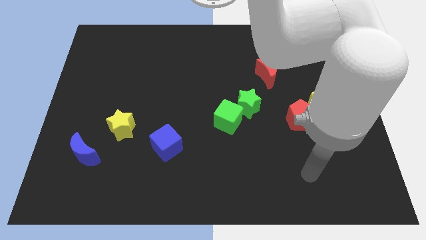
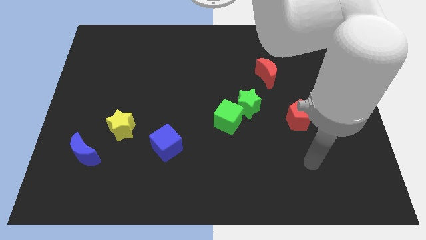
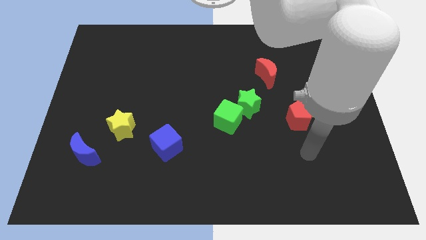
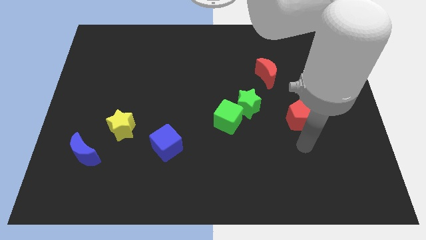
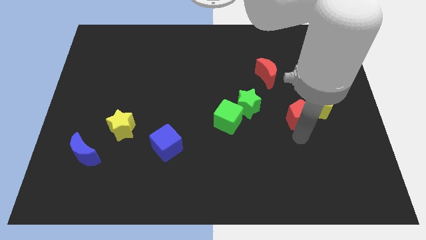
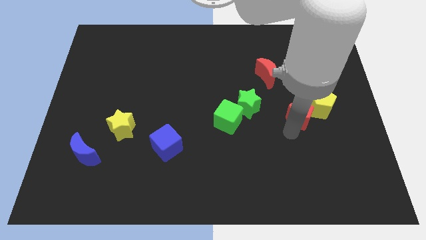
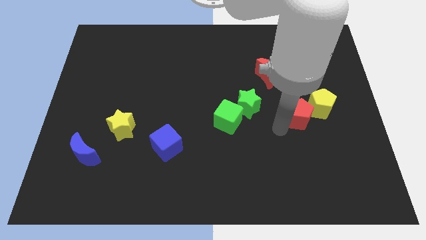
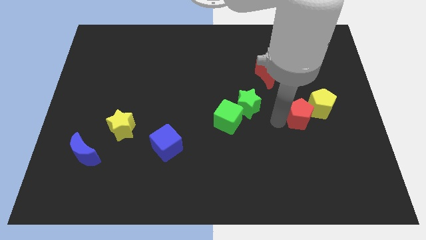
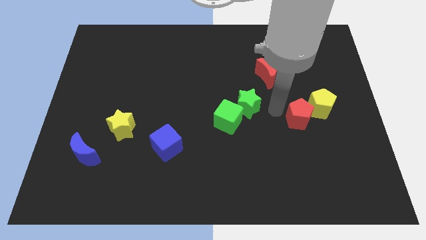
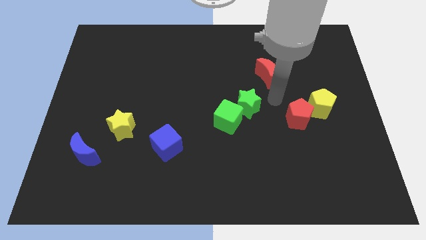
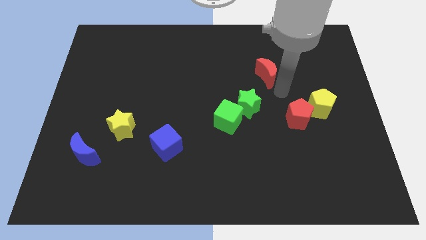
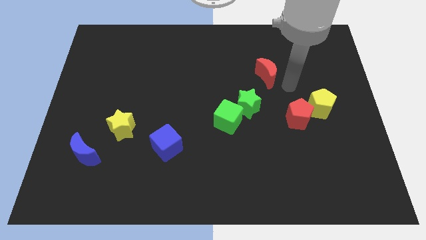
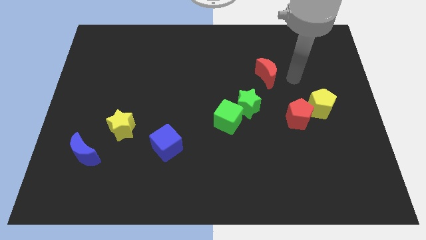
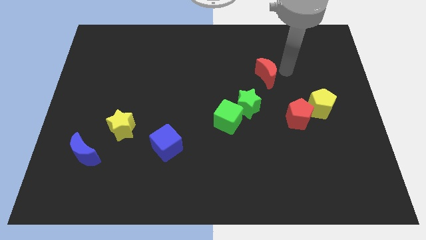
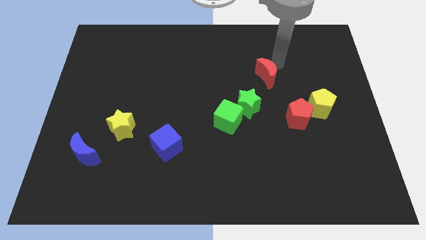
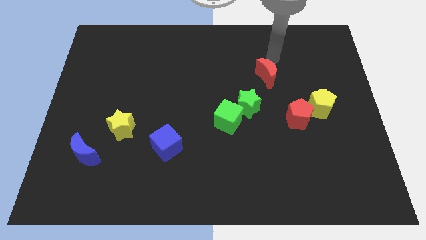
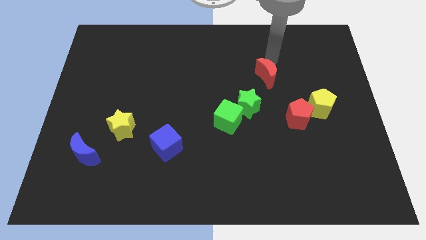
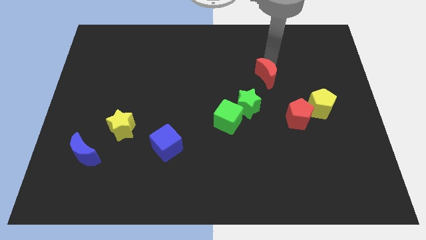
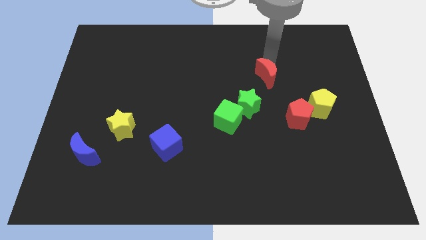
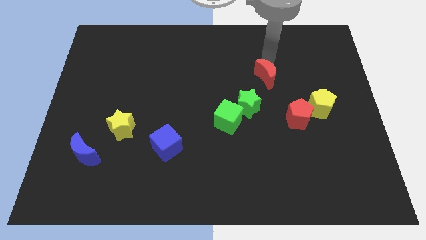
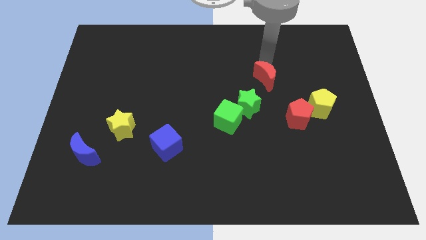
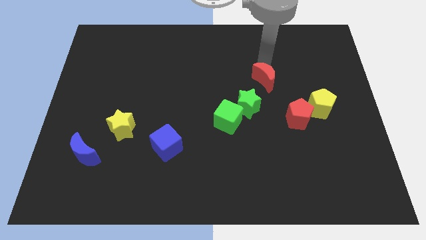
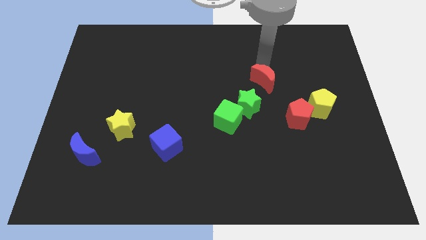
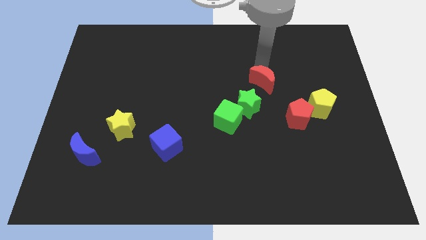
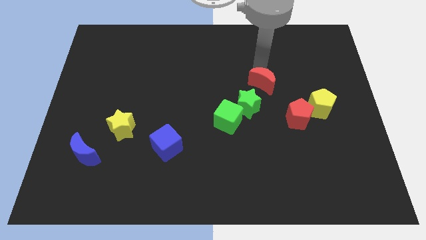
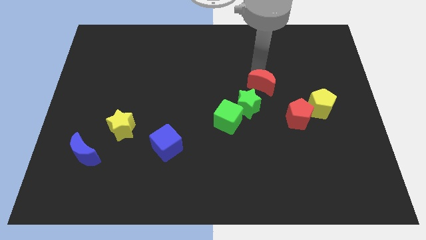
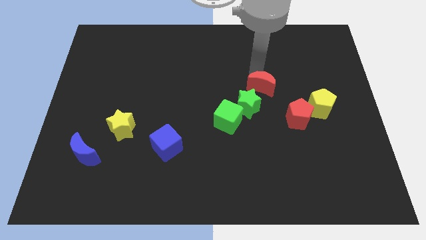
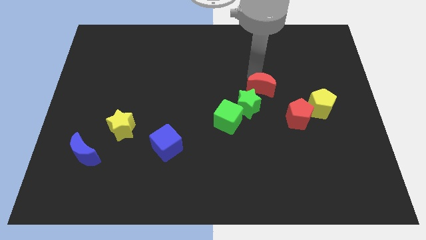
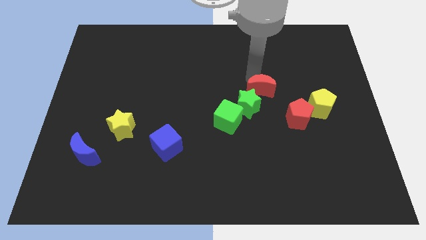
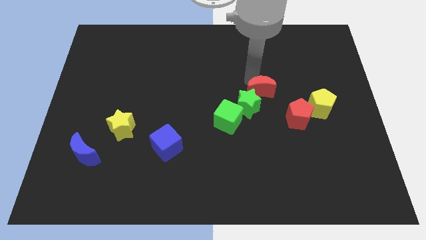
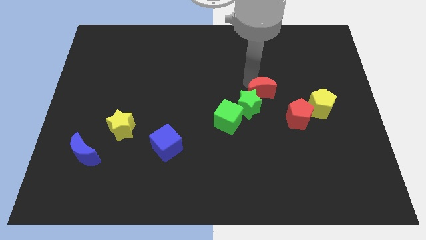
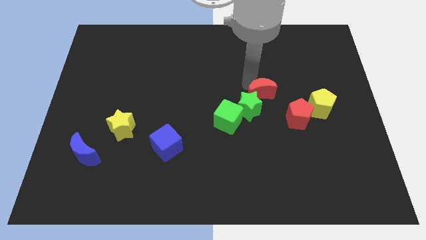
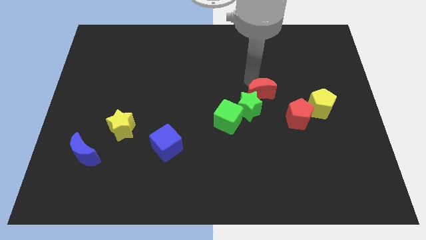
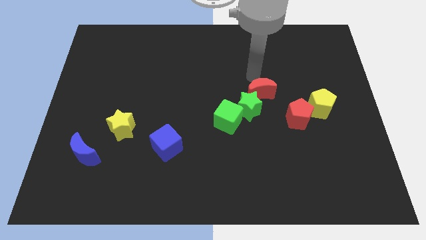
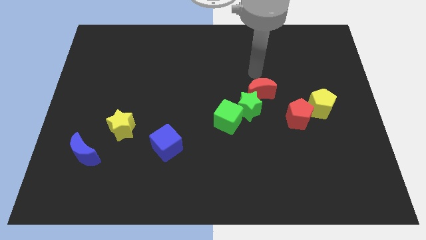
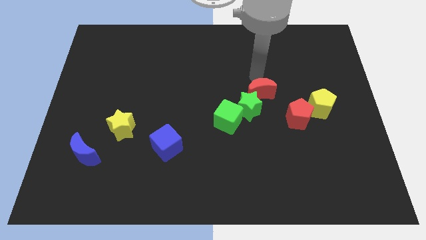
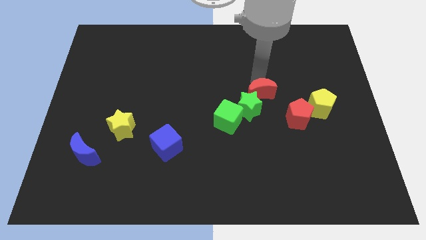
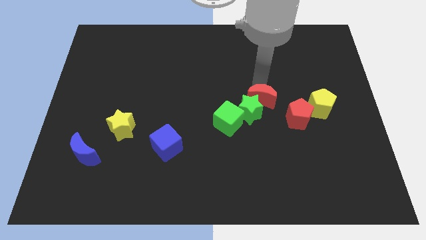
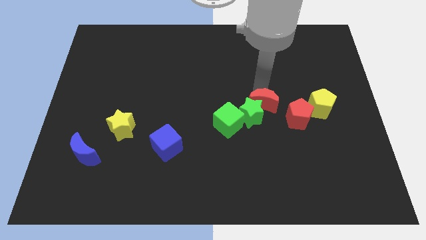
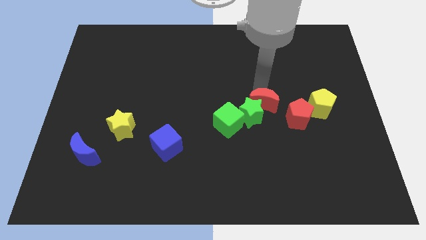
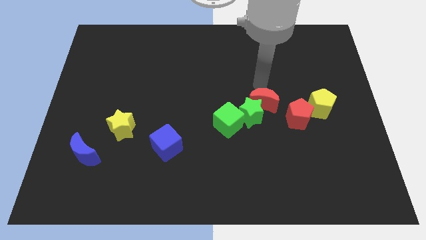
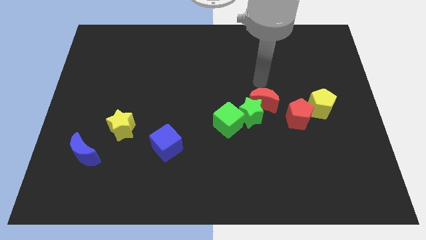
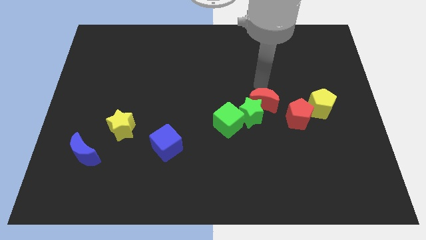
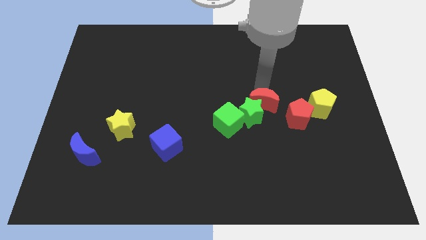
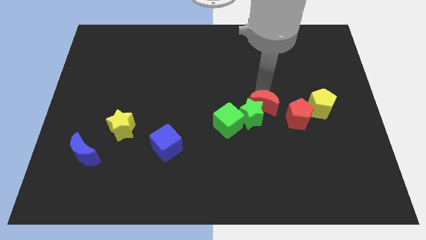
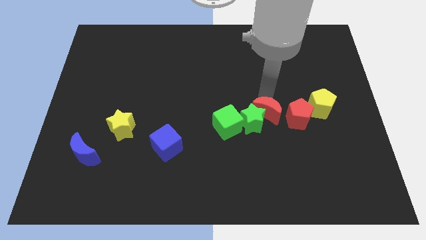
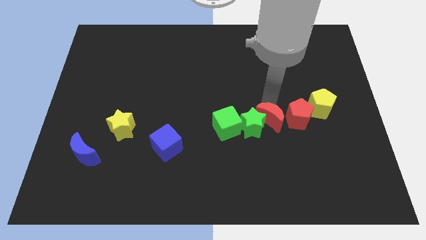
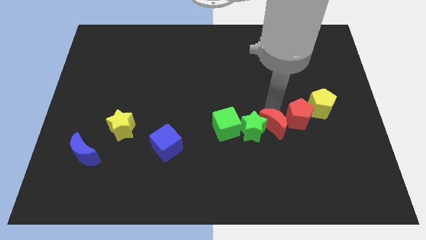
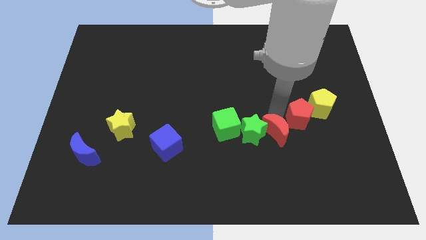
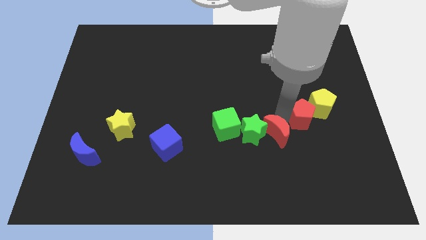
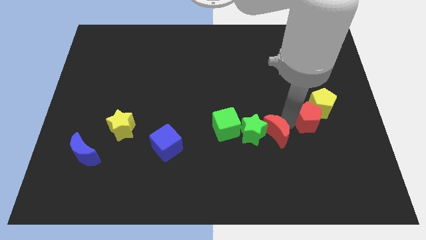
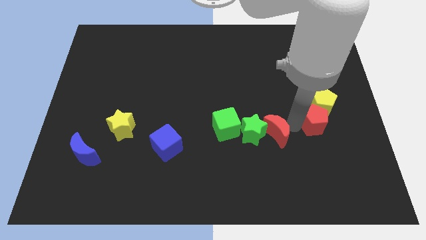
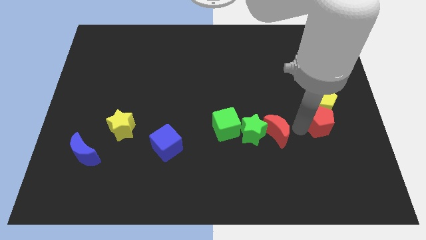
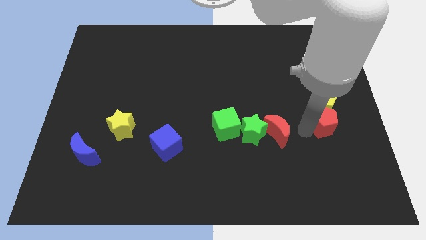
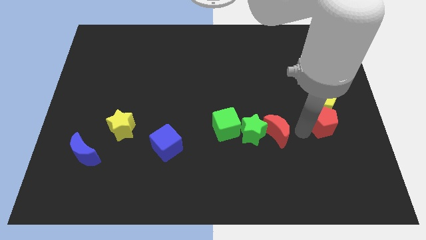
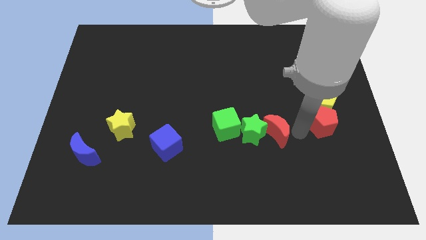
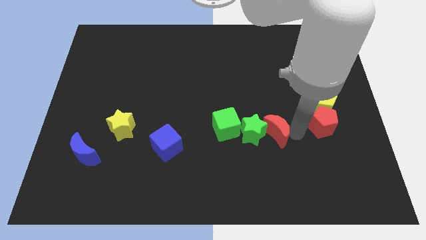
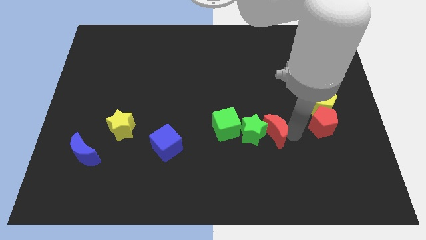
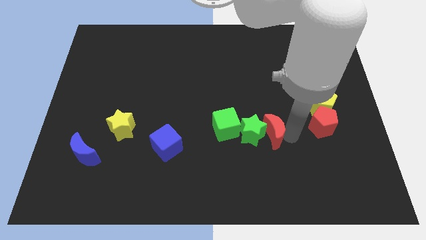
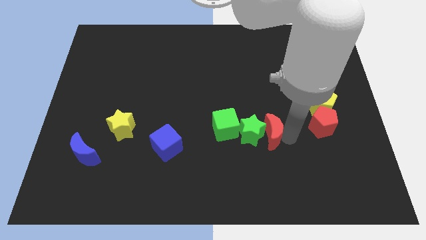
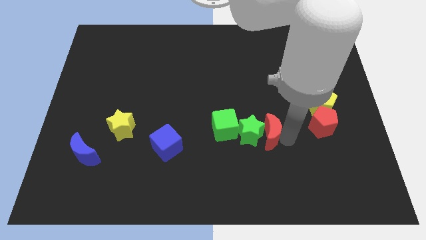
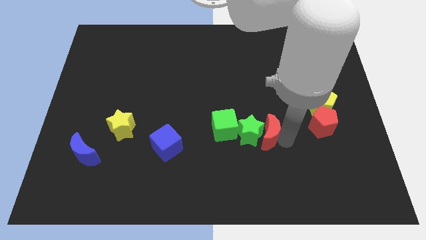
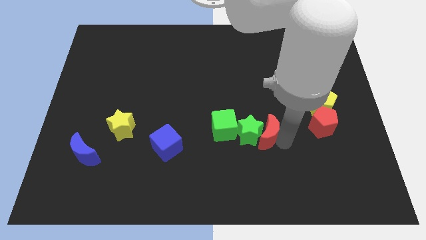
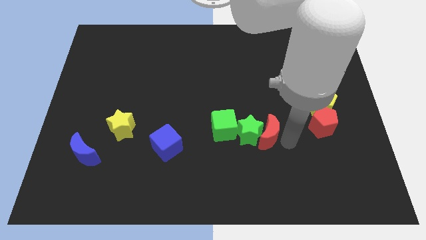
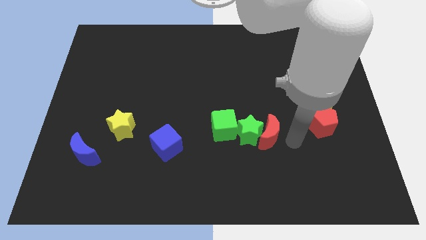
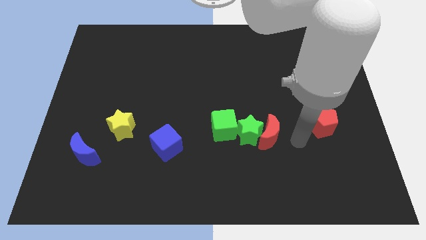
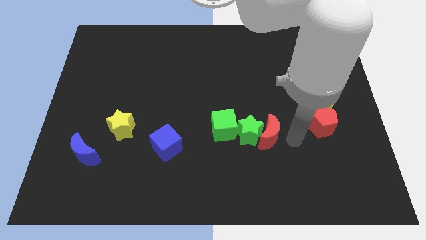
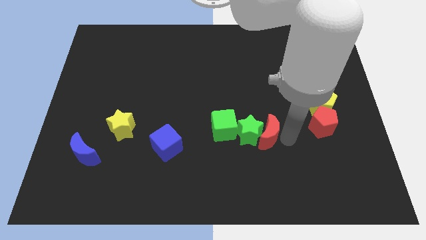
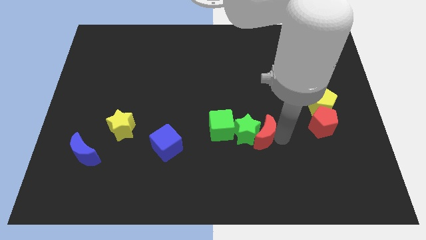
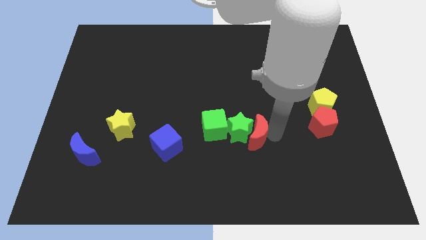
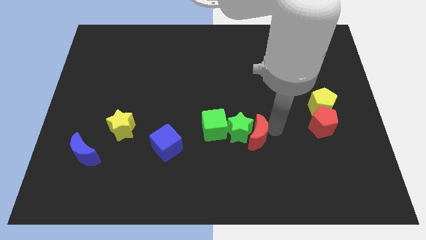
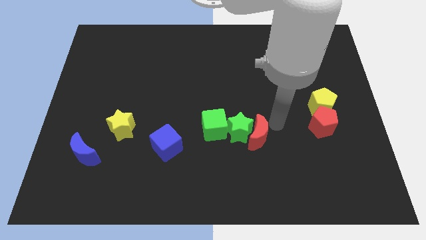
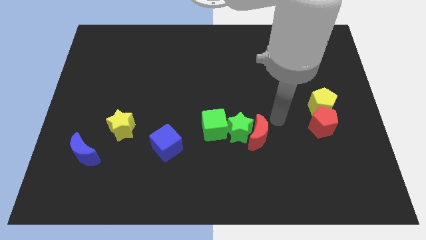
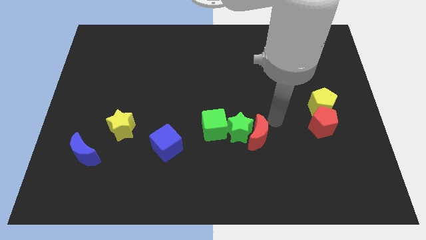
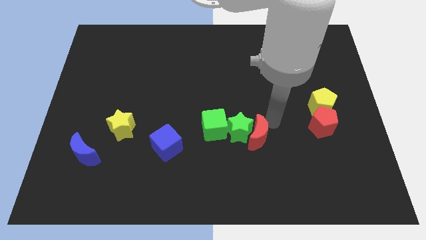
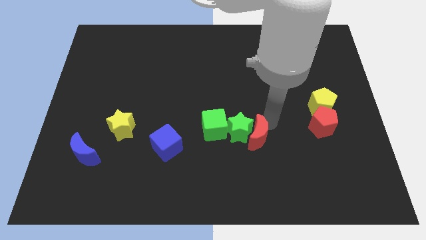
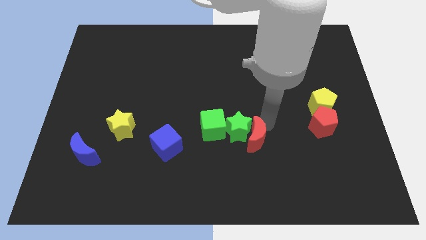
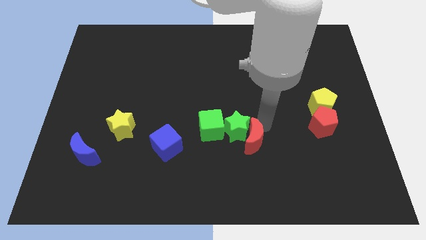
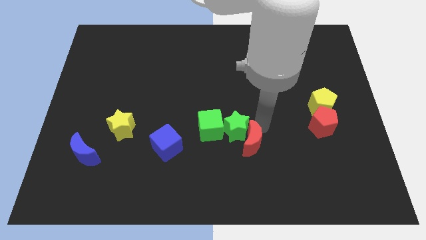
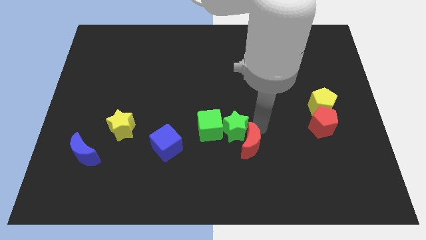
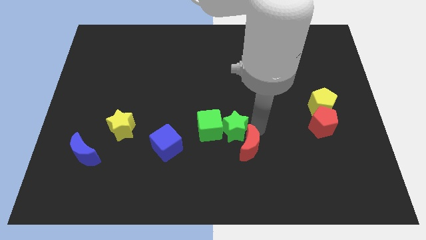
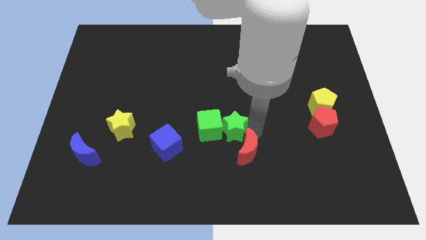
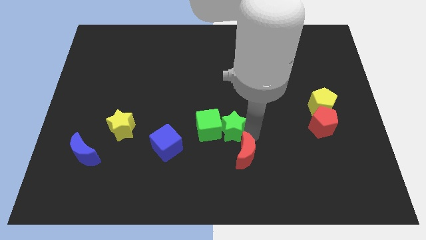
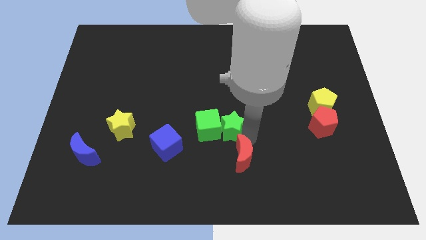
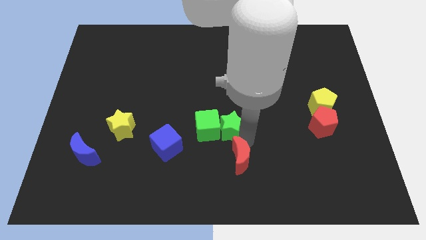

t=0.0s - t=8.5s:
move the red moon to the bottom side
